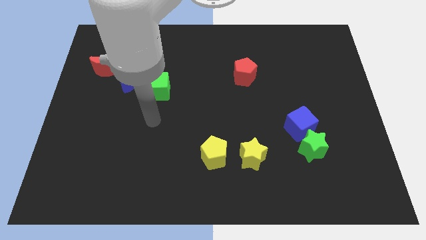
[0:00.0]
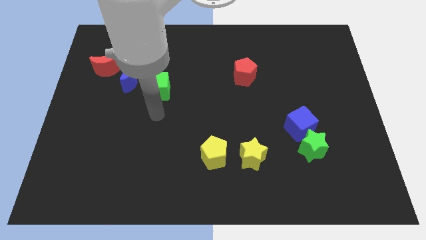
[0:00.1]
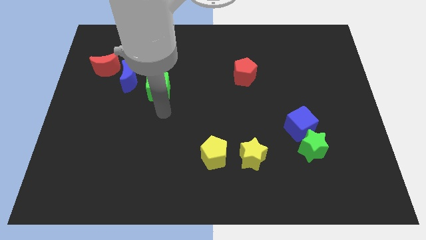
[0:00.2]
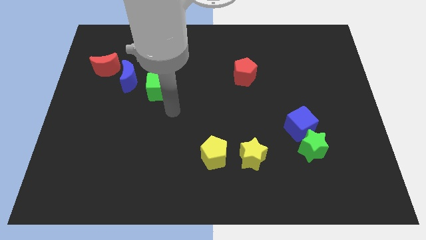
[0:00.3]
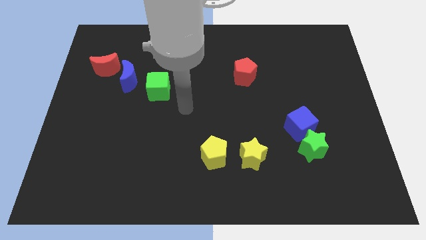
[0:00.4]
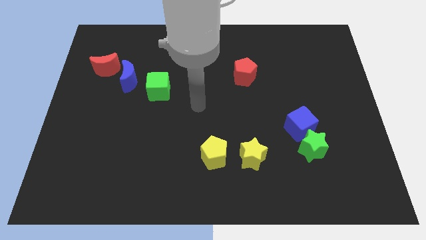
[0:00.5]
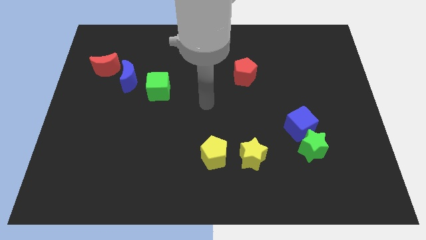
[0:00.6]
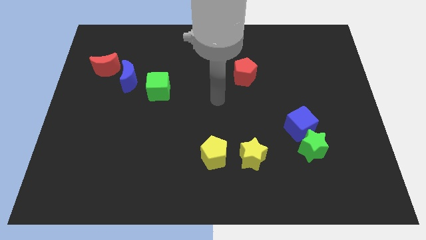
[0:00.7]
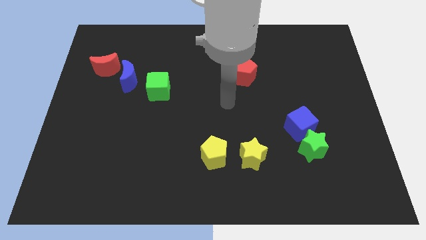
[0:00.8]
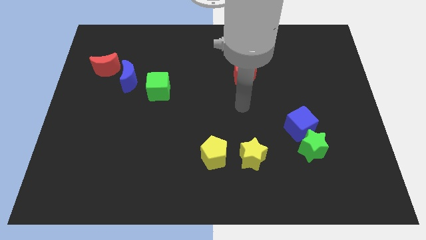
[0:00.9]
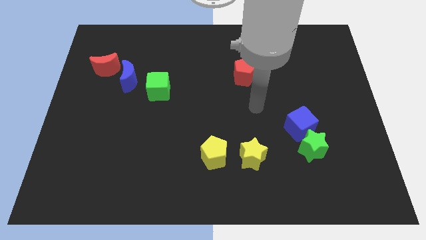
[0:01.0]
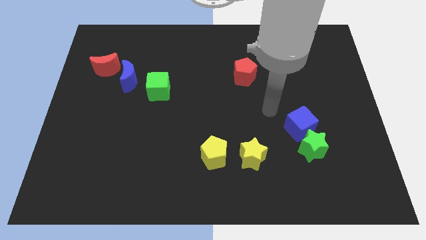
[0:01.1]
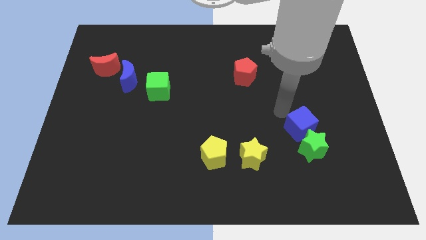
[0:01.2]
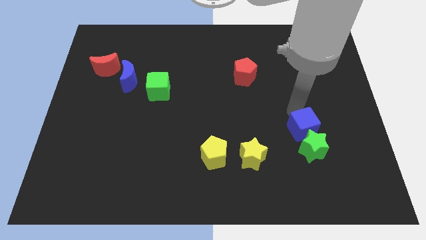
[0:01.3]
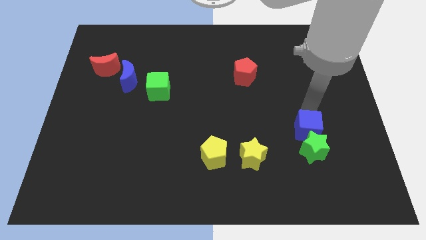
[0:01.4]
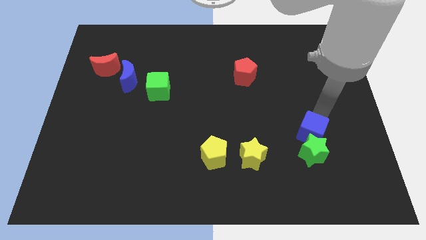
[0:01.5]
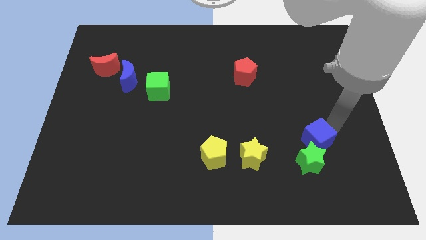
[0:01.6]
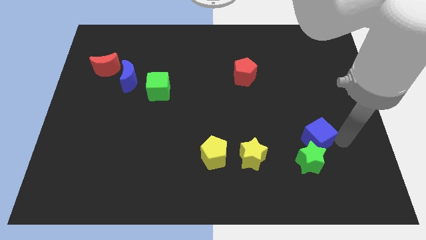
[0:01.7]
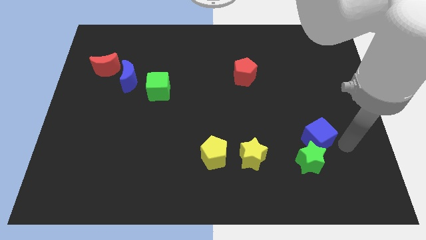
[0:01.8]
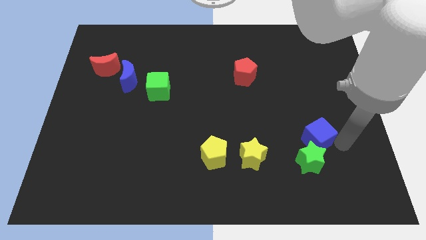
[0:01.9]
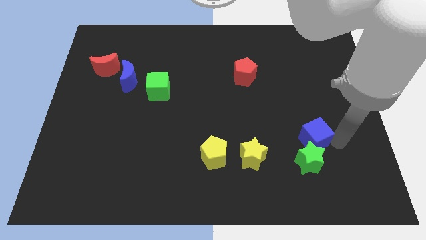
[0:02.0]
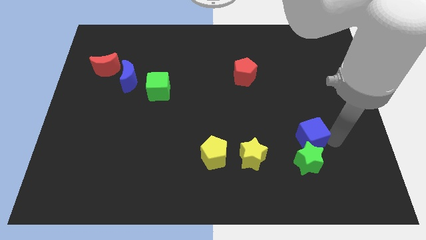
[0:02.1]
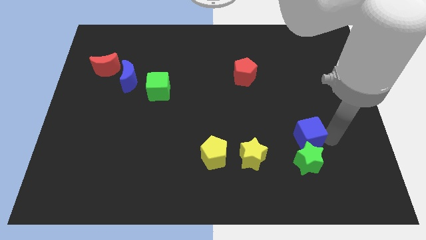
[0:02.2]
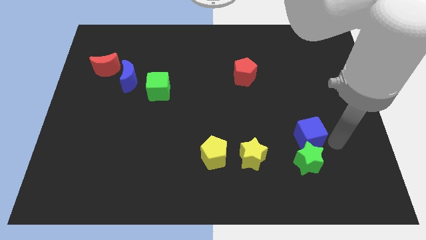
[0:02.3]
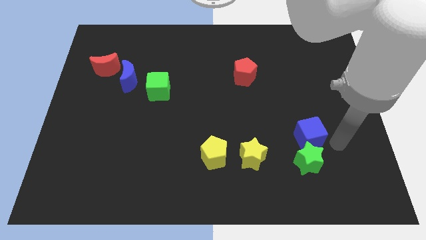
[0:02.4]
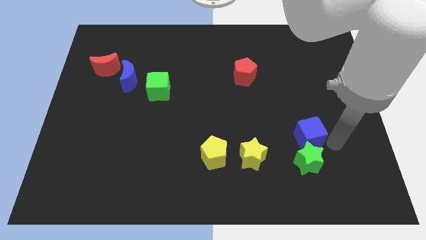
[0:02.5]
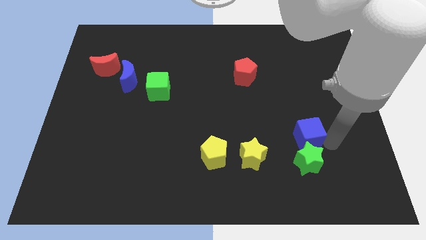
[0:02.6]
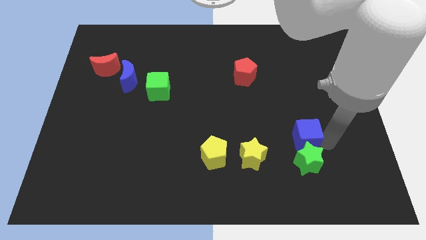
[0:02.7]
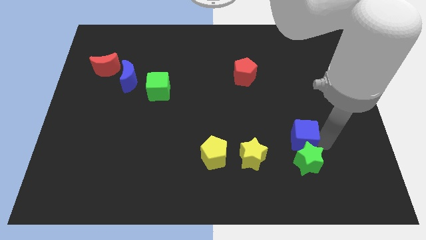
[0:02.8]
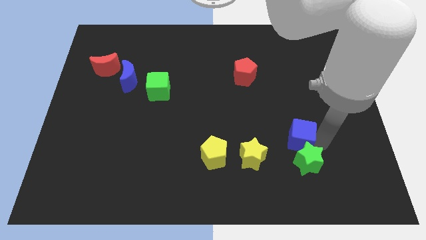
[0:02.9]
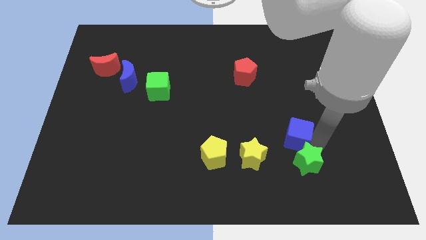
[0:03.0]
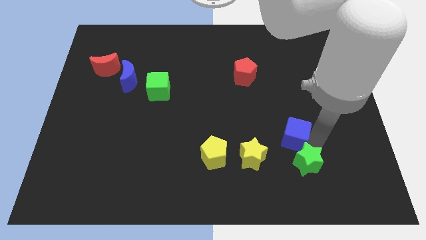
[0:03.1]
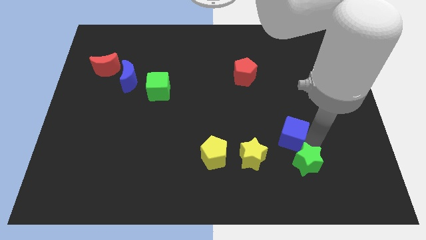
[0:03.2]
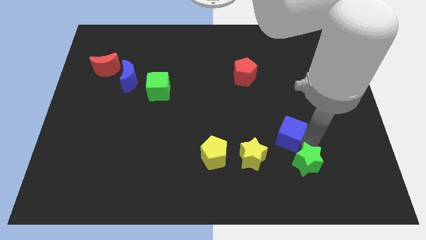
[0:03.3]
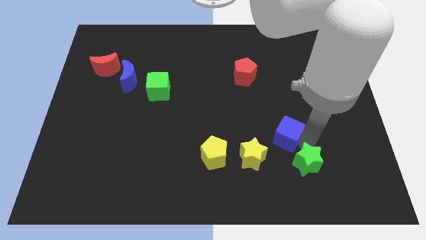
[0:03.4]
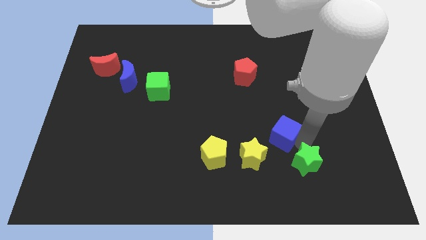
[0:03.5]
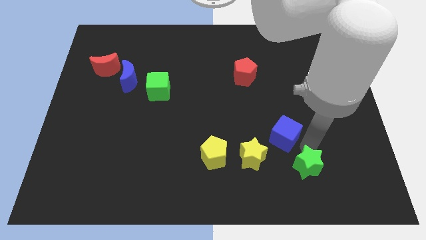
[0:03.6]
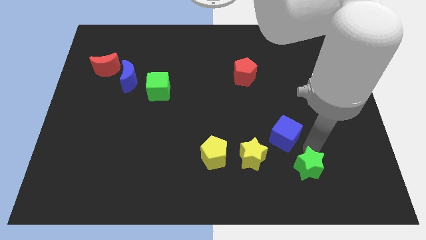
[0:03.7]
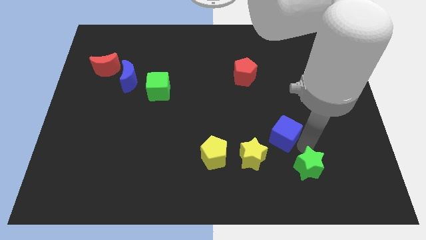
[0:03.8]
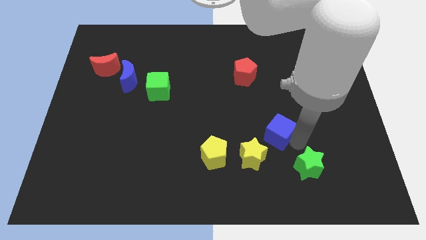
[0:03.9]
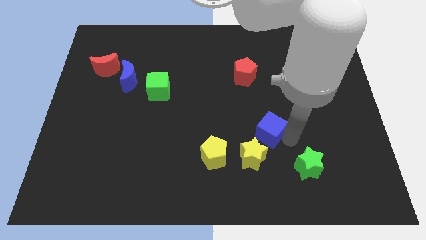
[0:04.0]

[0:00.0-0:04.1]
slightly slide the blue cube left

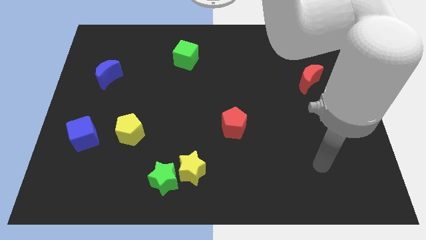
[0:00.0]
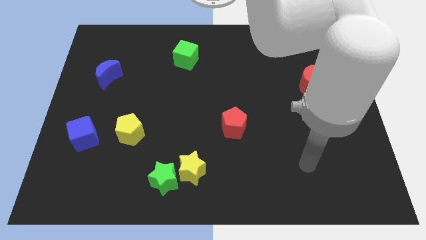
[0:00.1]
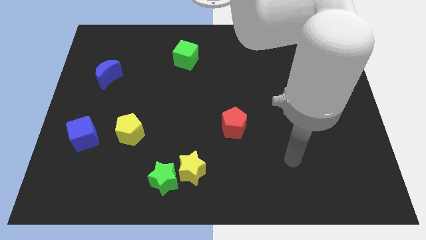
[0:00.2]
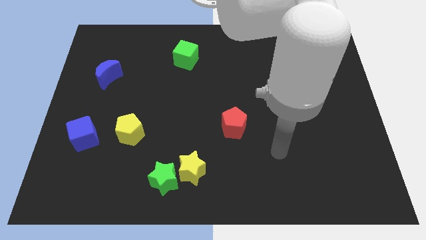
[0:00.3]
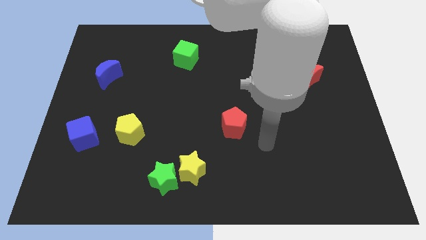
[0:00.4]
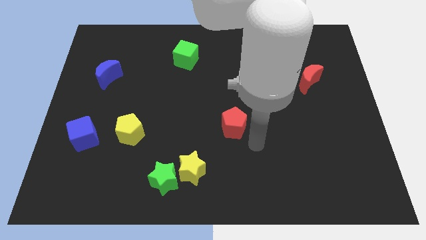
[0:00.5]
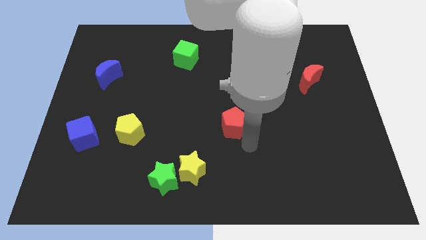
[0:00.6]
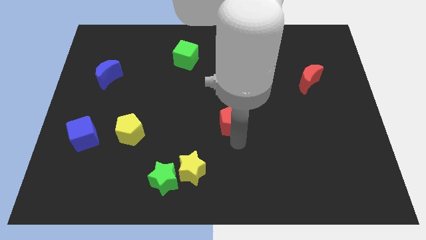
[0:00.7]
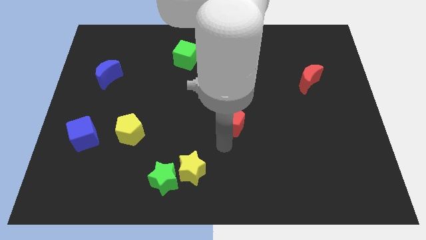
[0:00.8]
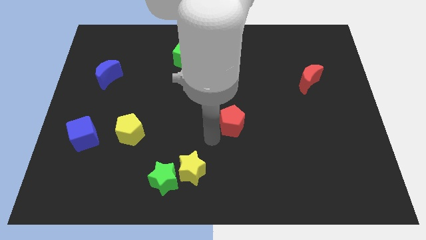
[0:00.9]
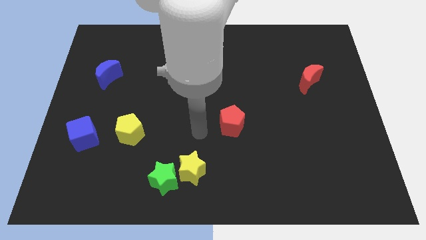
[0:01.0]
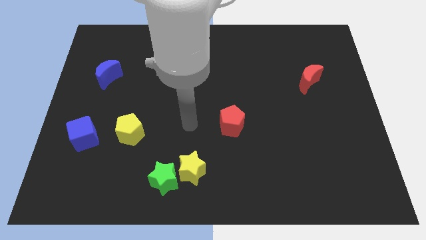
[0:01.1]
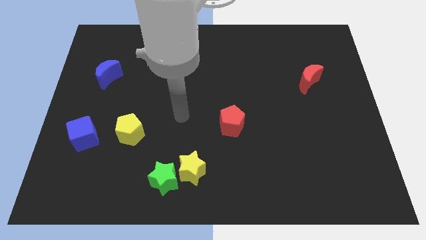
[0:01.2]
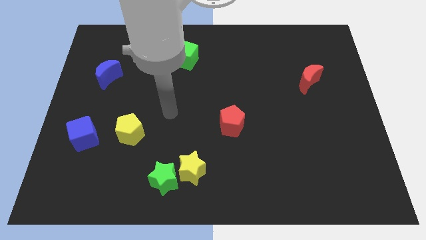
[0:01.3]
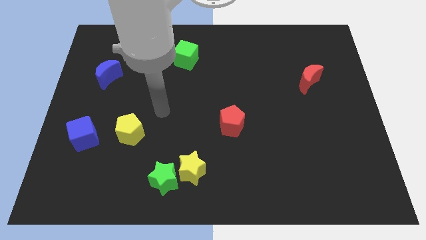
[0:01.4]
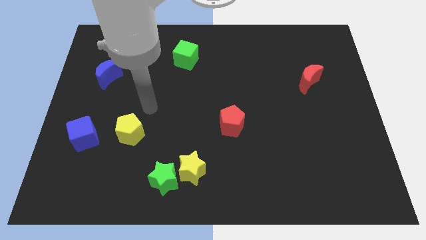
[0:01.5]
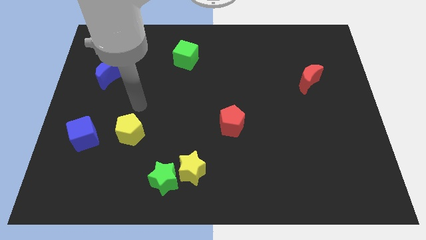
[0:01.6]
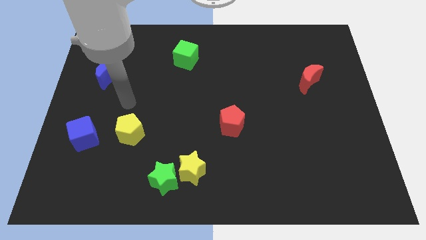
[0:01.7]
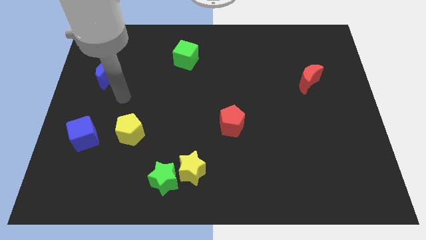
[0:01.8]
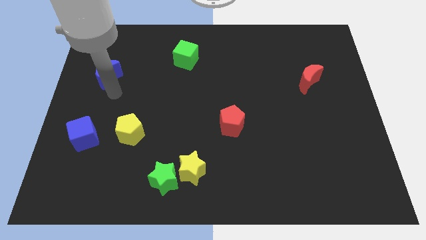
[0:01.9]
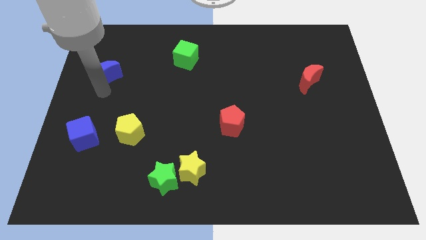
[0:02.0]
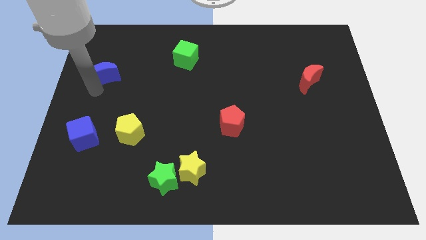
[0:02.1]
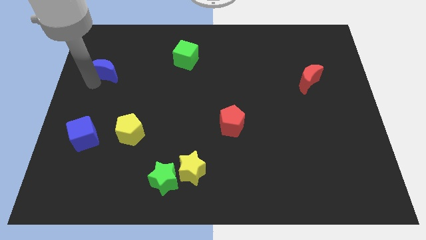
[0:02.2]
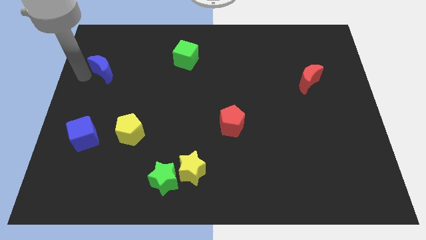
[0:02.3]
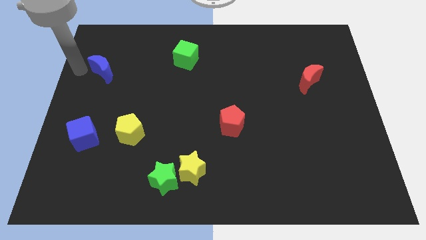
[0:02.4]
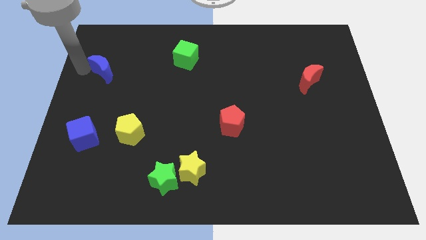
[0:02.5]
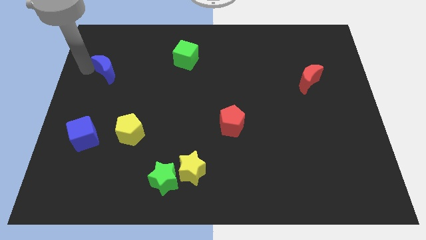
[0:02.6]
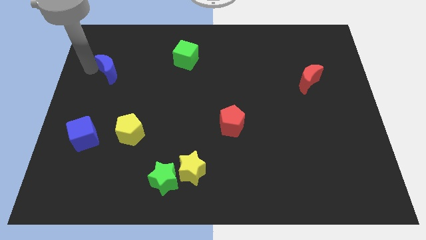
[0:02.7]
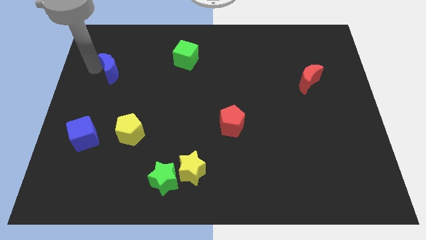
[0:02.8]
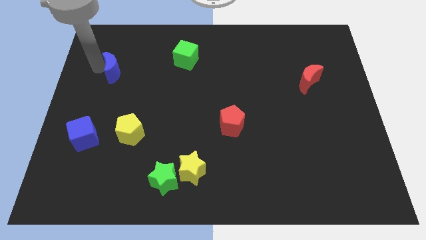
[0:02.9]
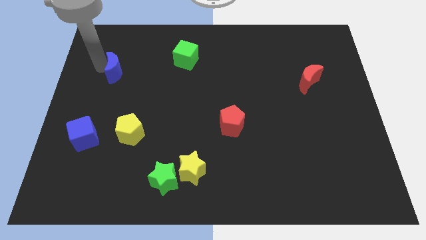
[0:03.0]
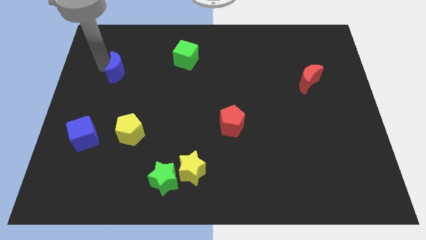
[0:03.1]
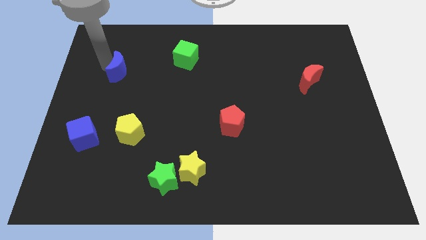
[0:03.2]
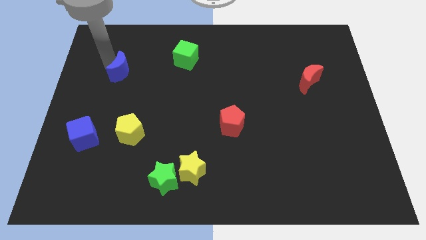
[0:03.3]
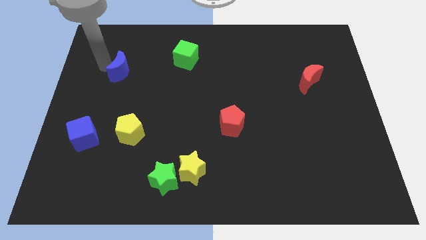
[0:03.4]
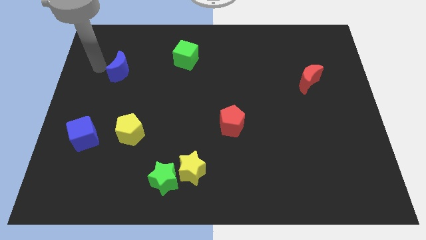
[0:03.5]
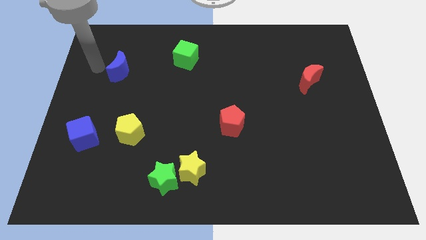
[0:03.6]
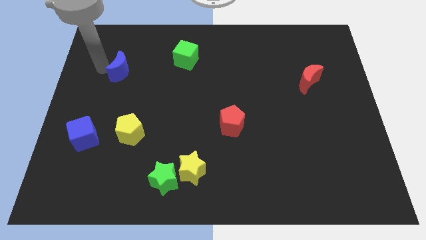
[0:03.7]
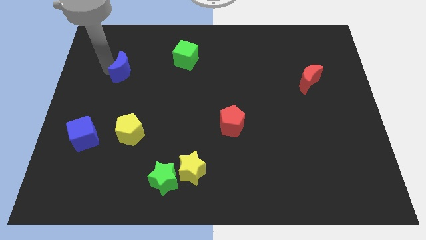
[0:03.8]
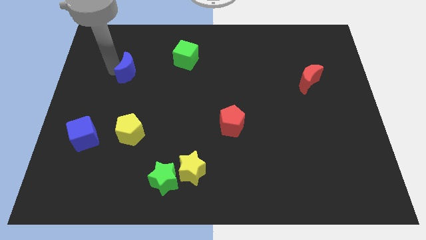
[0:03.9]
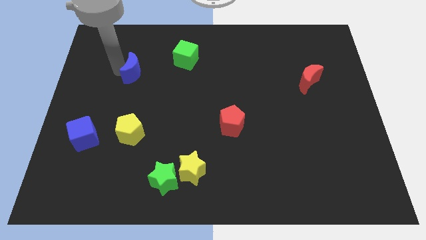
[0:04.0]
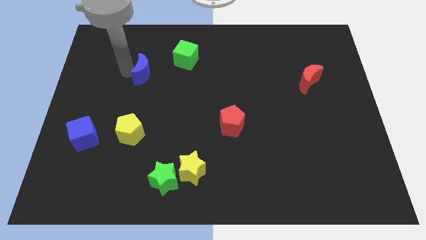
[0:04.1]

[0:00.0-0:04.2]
push the blue moon a little right
